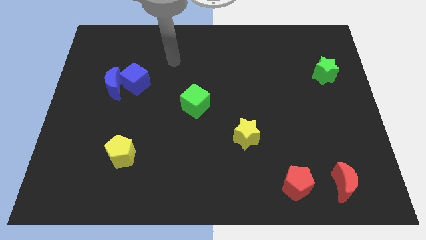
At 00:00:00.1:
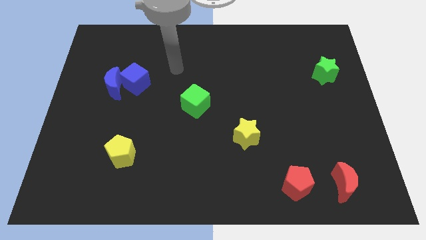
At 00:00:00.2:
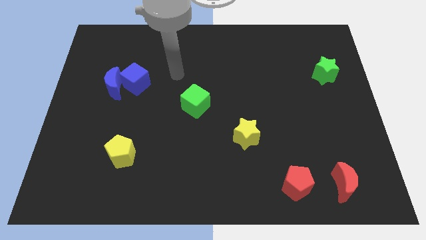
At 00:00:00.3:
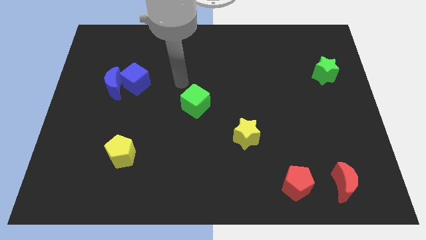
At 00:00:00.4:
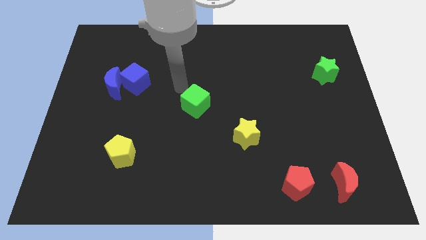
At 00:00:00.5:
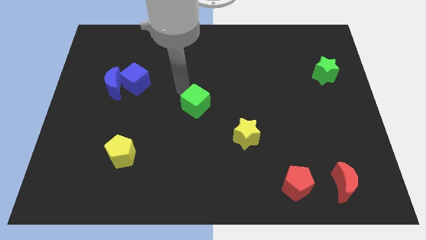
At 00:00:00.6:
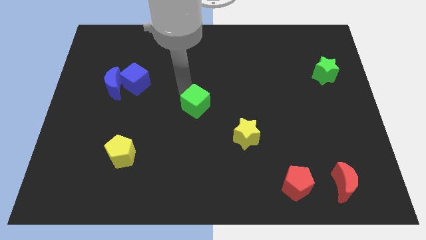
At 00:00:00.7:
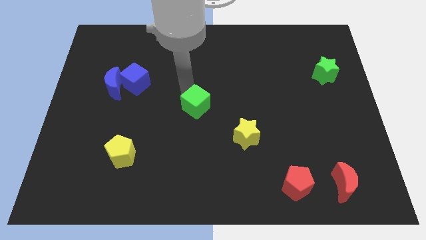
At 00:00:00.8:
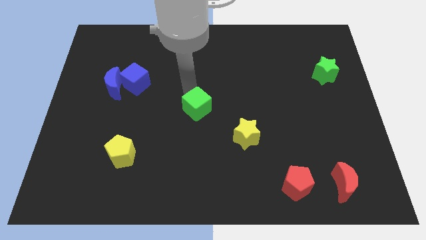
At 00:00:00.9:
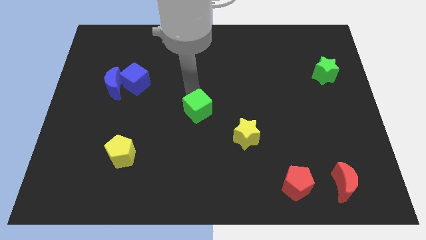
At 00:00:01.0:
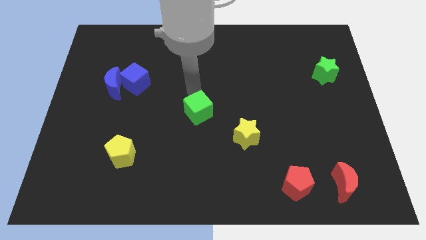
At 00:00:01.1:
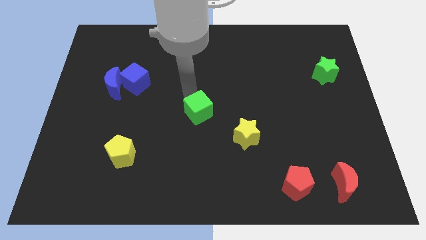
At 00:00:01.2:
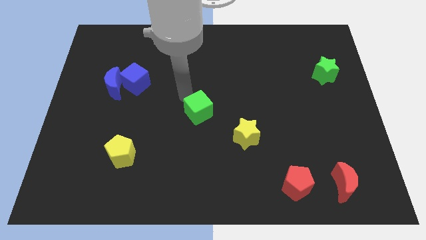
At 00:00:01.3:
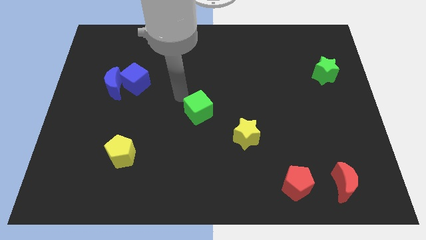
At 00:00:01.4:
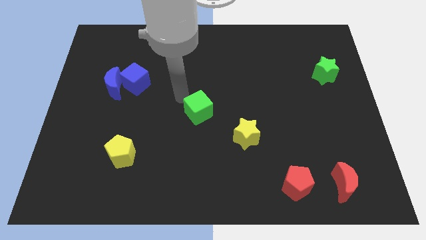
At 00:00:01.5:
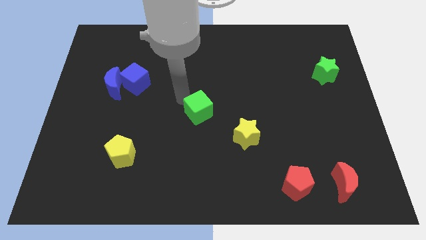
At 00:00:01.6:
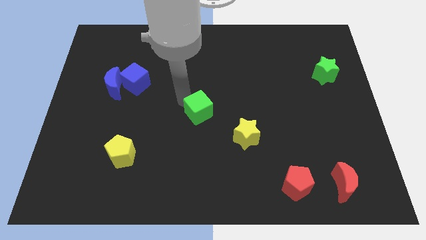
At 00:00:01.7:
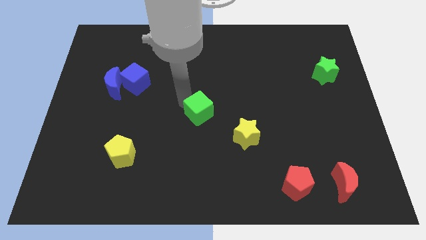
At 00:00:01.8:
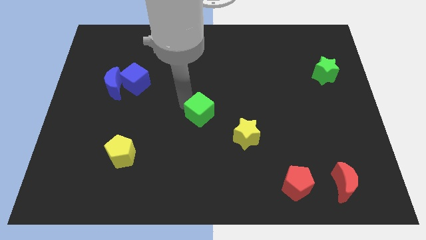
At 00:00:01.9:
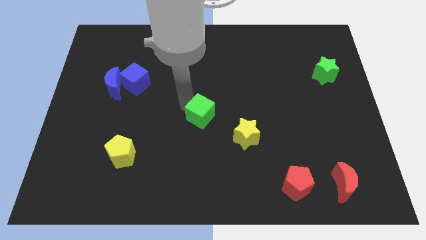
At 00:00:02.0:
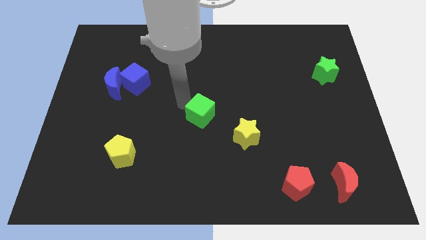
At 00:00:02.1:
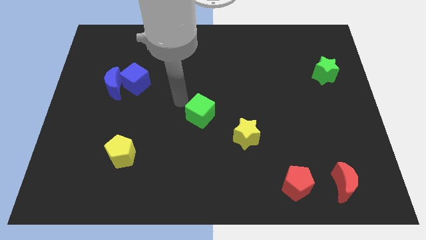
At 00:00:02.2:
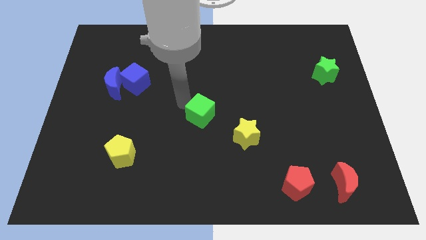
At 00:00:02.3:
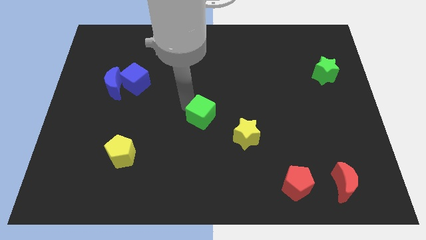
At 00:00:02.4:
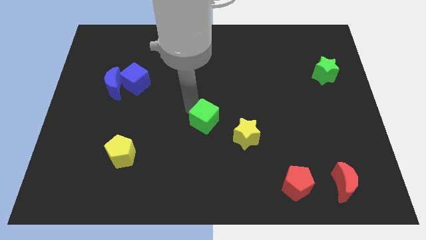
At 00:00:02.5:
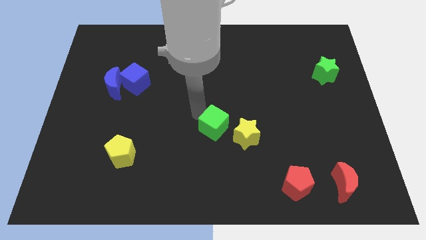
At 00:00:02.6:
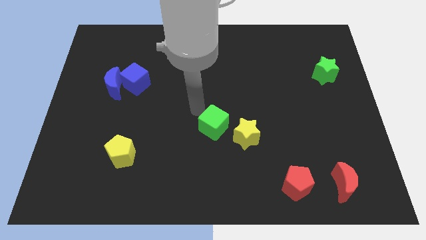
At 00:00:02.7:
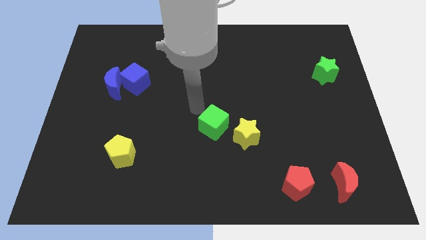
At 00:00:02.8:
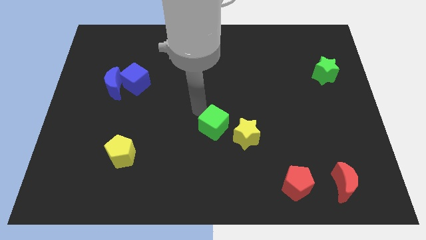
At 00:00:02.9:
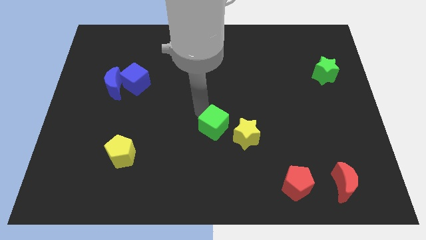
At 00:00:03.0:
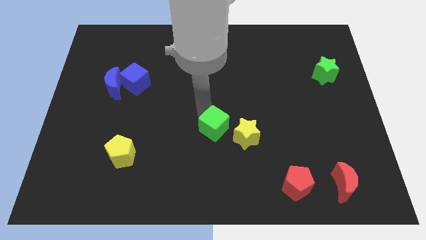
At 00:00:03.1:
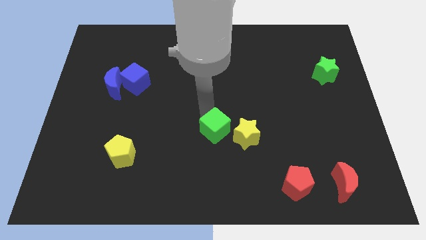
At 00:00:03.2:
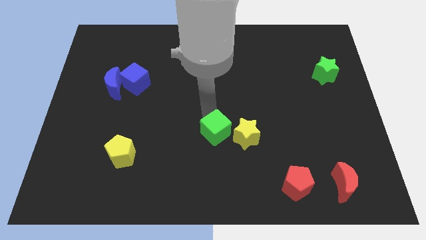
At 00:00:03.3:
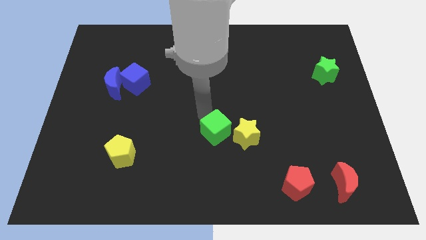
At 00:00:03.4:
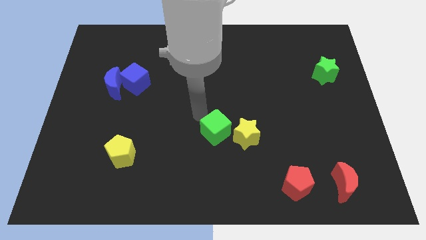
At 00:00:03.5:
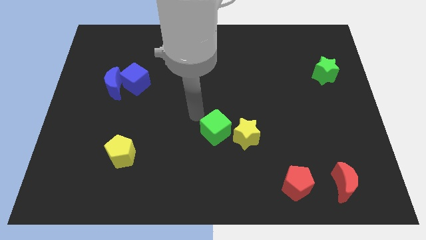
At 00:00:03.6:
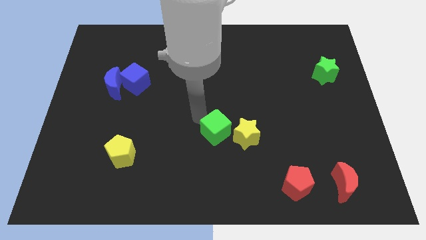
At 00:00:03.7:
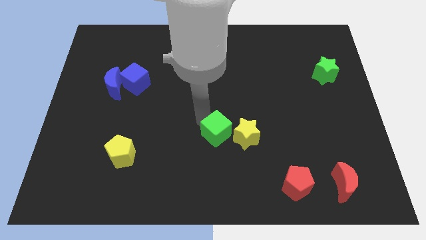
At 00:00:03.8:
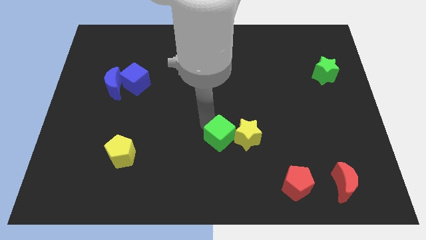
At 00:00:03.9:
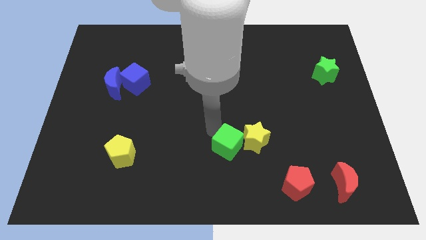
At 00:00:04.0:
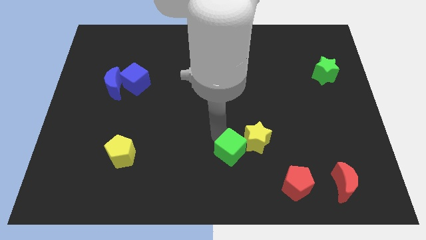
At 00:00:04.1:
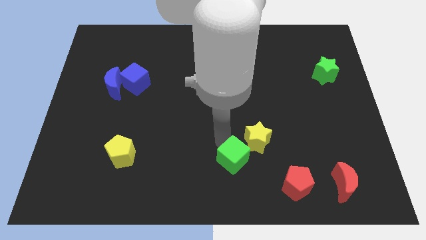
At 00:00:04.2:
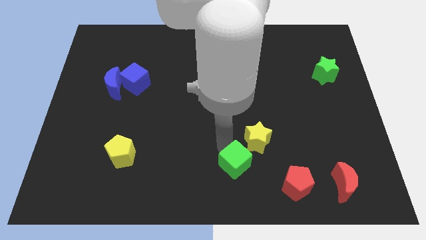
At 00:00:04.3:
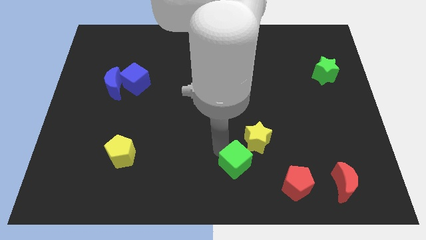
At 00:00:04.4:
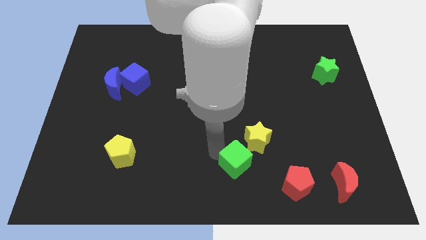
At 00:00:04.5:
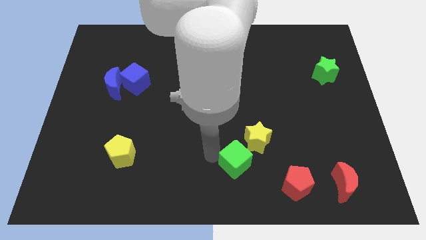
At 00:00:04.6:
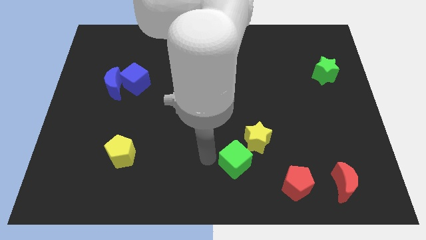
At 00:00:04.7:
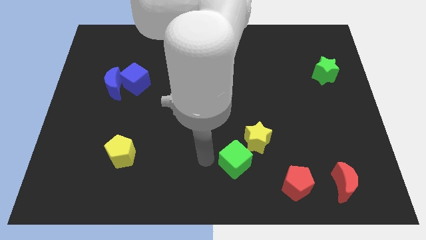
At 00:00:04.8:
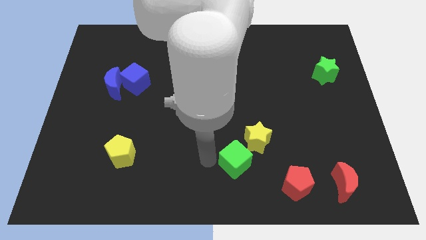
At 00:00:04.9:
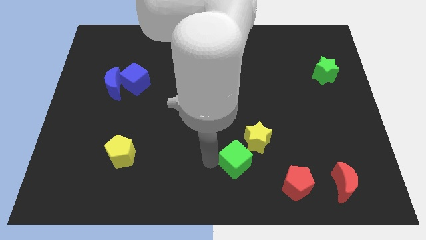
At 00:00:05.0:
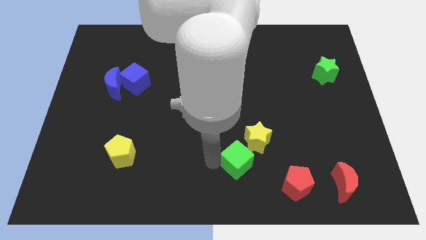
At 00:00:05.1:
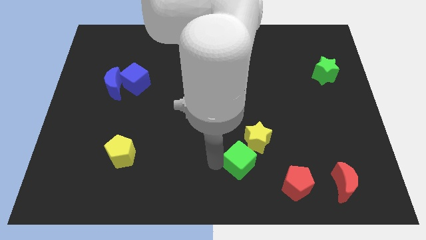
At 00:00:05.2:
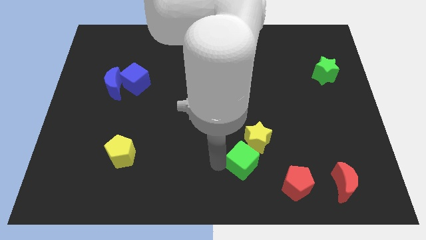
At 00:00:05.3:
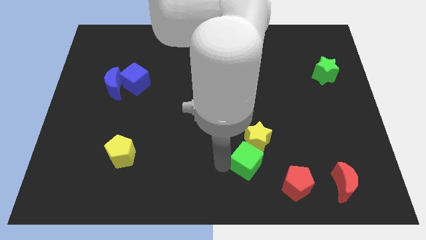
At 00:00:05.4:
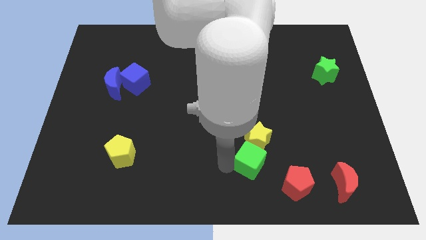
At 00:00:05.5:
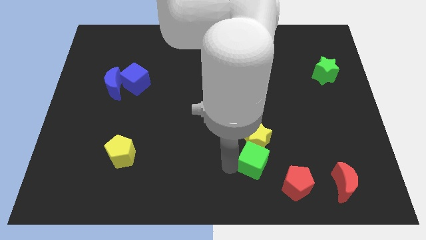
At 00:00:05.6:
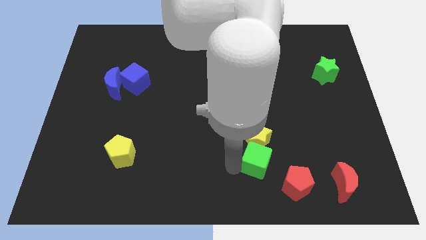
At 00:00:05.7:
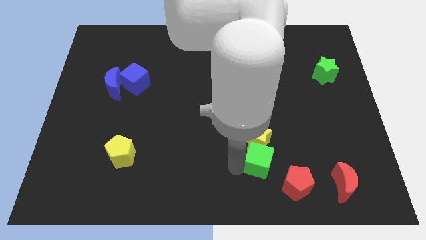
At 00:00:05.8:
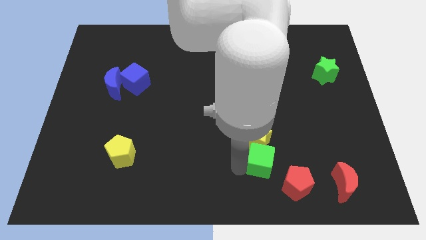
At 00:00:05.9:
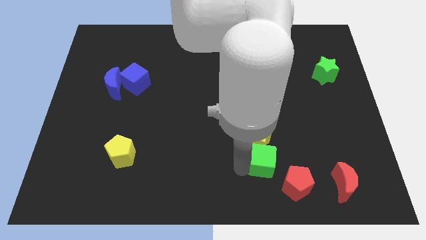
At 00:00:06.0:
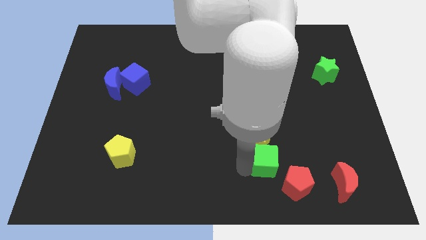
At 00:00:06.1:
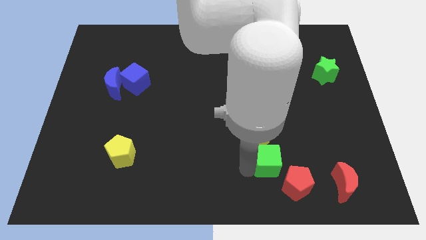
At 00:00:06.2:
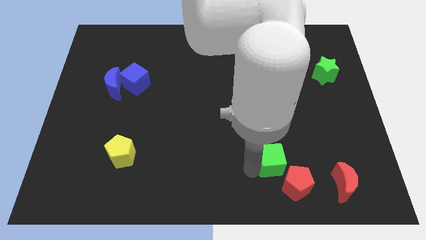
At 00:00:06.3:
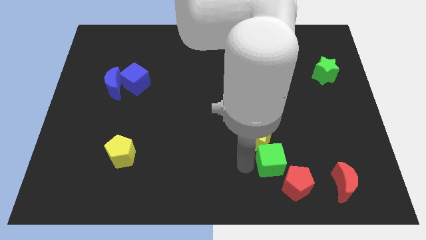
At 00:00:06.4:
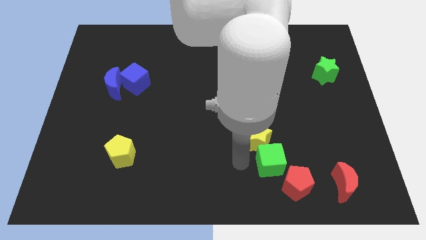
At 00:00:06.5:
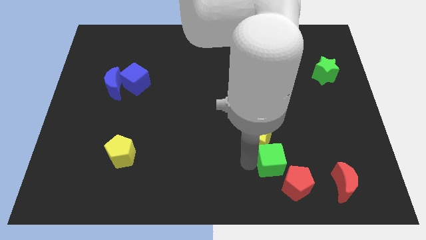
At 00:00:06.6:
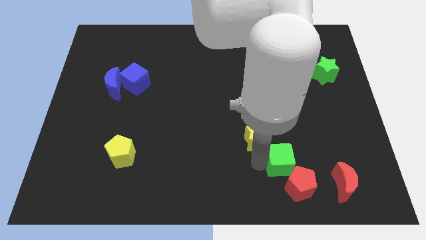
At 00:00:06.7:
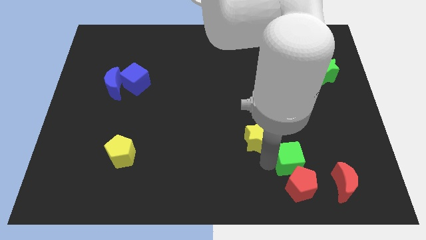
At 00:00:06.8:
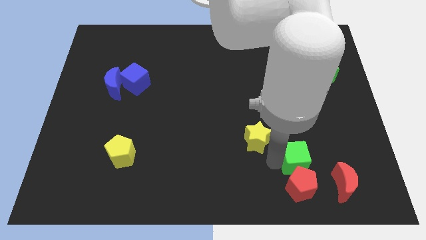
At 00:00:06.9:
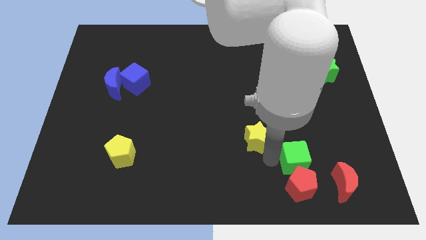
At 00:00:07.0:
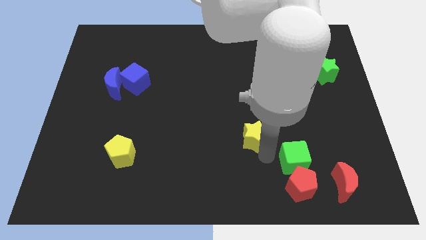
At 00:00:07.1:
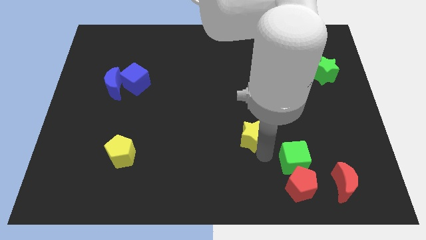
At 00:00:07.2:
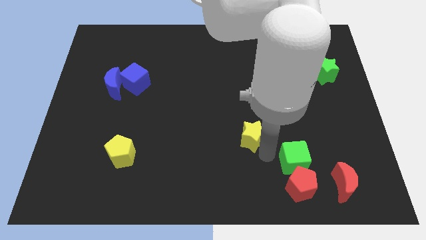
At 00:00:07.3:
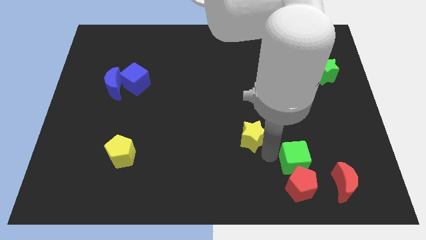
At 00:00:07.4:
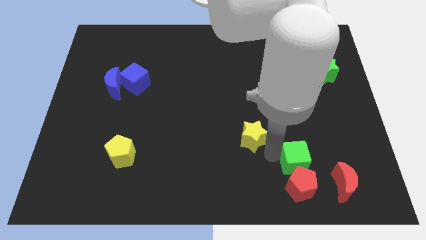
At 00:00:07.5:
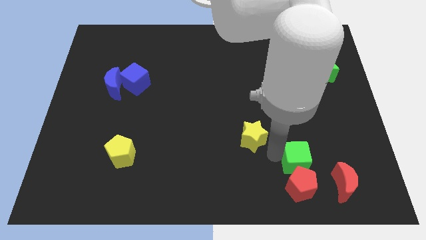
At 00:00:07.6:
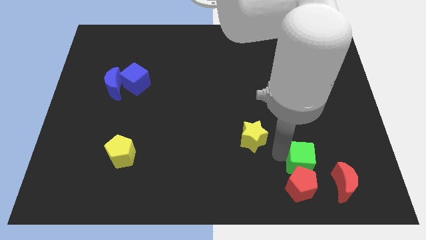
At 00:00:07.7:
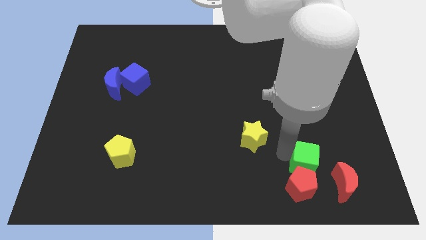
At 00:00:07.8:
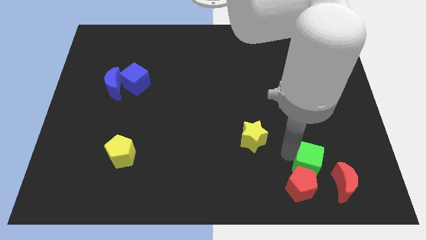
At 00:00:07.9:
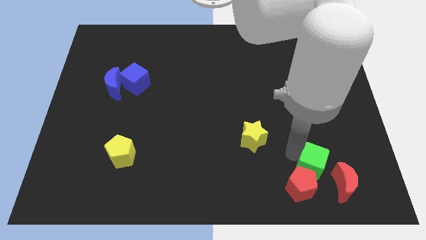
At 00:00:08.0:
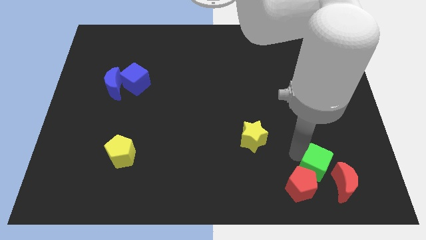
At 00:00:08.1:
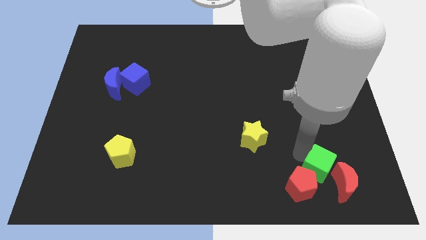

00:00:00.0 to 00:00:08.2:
slide the green cube towards the red moon
